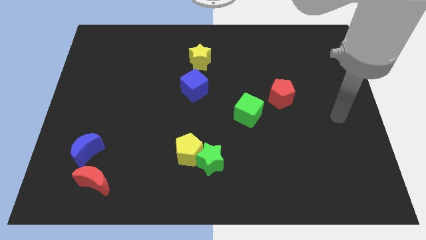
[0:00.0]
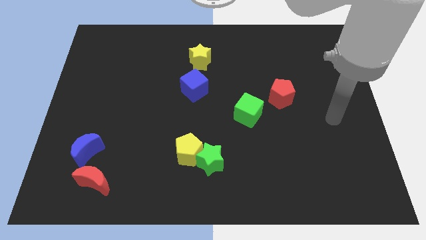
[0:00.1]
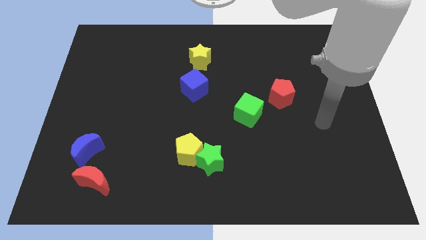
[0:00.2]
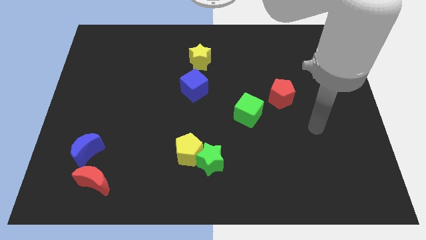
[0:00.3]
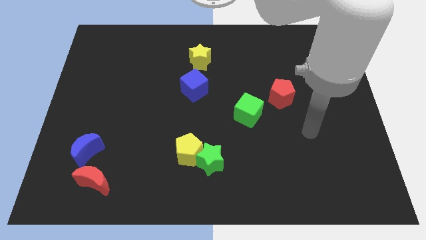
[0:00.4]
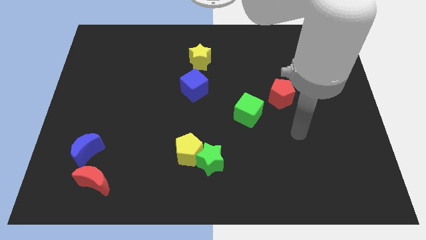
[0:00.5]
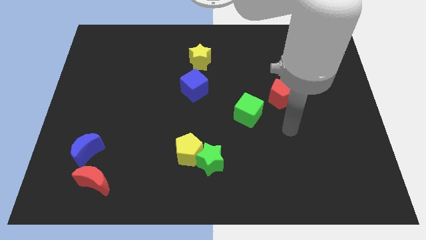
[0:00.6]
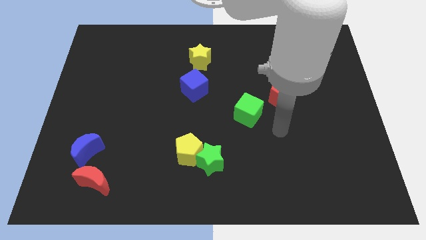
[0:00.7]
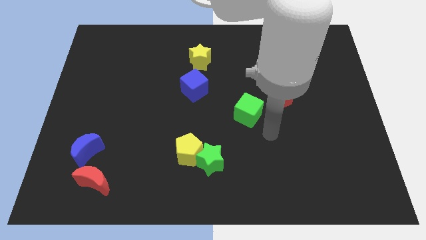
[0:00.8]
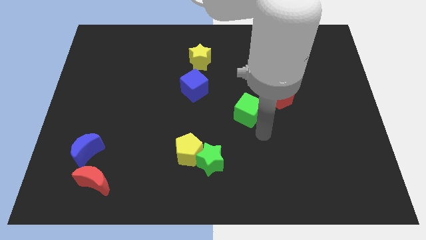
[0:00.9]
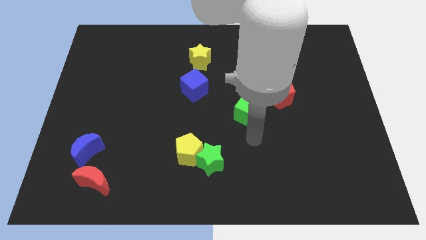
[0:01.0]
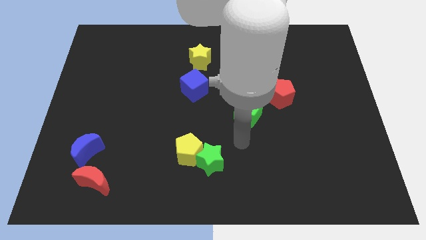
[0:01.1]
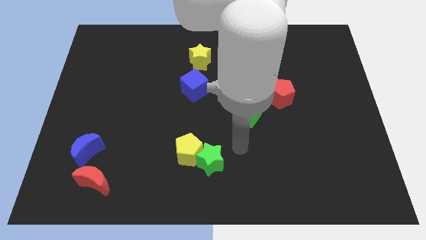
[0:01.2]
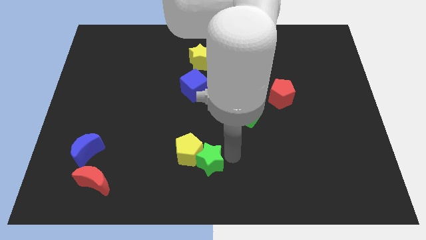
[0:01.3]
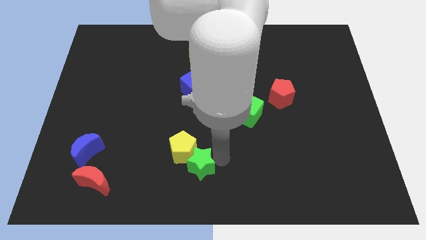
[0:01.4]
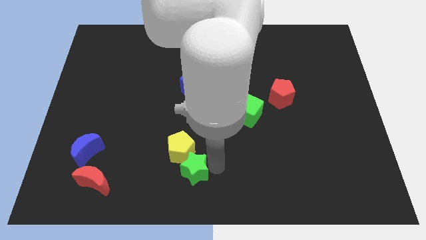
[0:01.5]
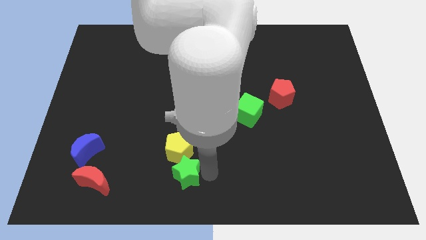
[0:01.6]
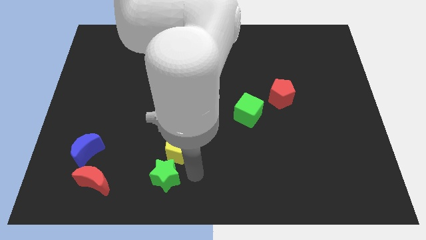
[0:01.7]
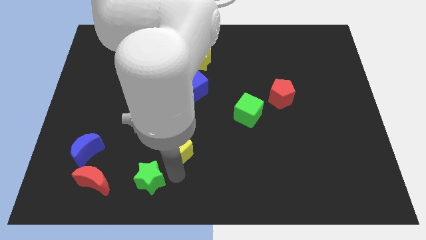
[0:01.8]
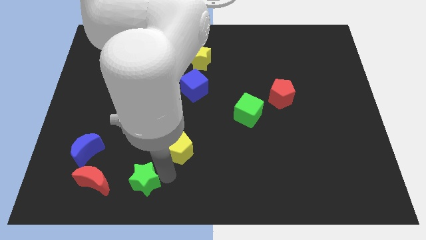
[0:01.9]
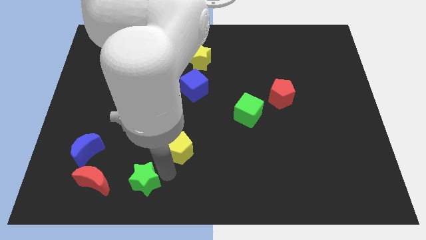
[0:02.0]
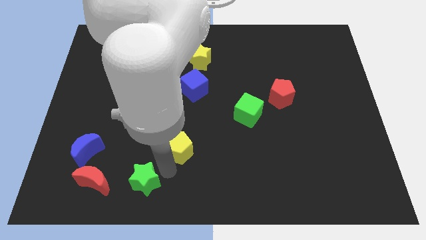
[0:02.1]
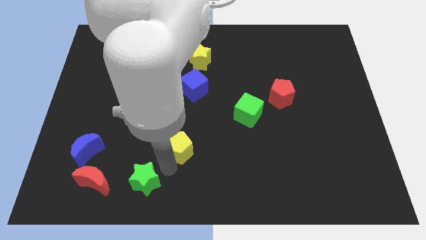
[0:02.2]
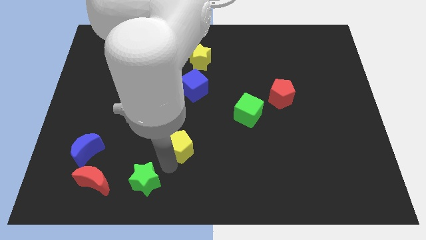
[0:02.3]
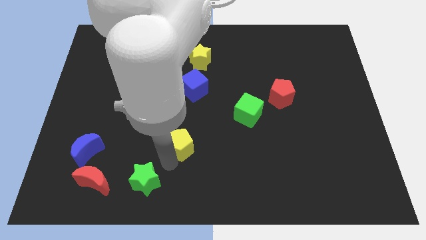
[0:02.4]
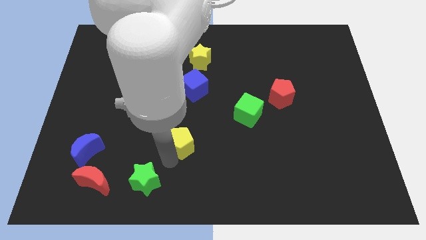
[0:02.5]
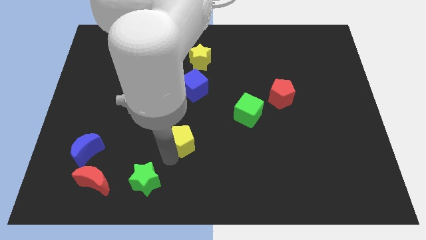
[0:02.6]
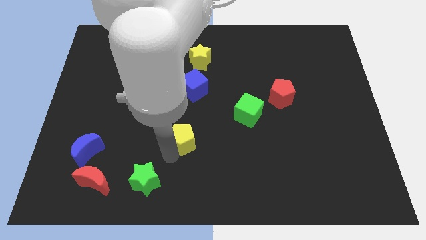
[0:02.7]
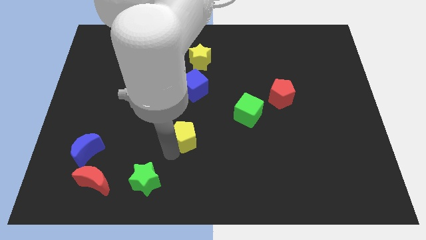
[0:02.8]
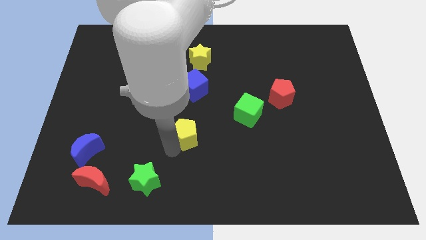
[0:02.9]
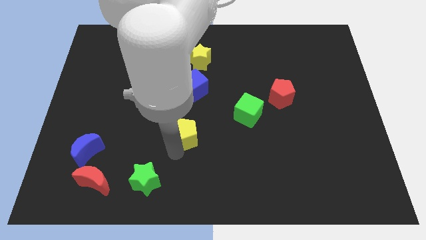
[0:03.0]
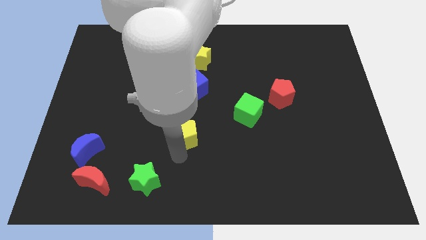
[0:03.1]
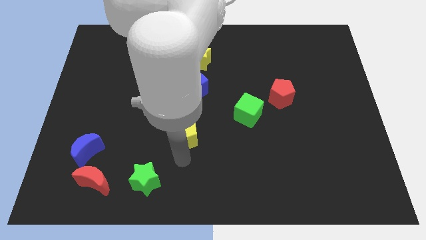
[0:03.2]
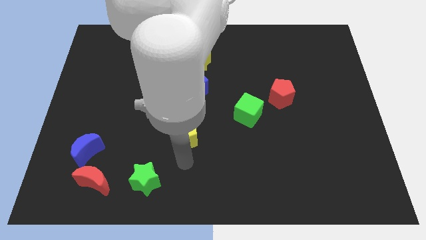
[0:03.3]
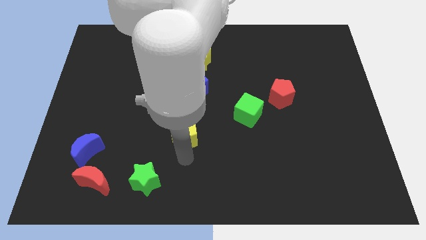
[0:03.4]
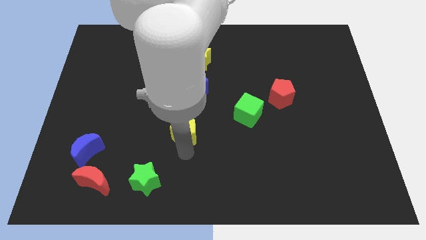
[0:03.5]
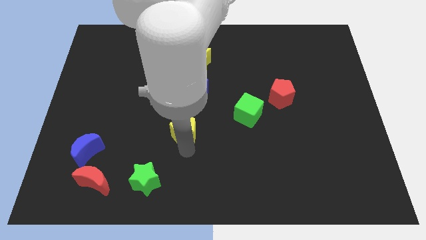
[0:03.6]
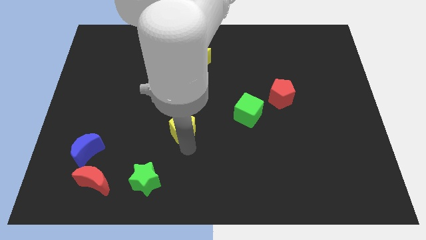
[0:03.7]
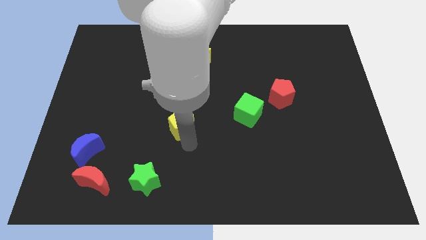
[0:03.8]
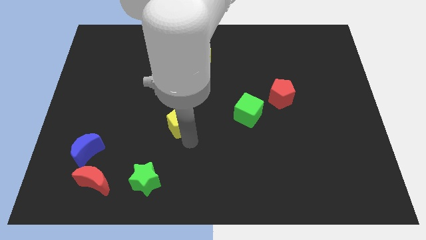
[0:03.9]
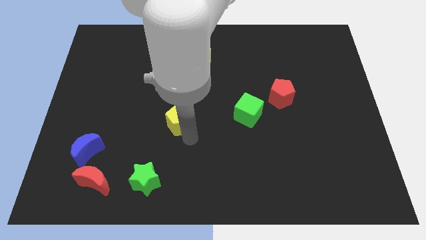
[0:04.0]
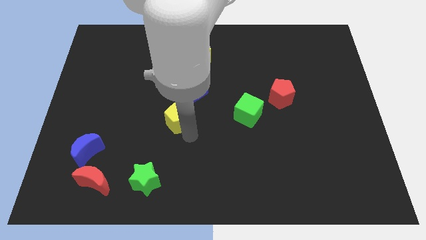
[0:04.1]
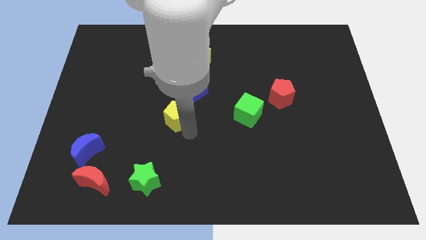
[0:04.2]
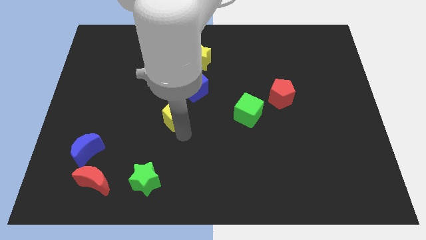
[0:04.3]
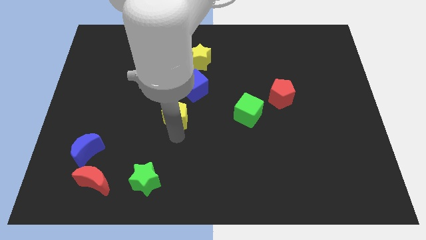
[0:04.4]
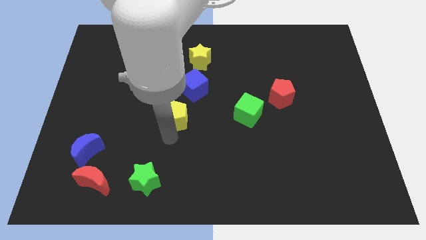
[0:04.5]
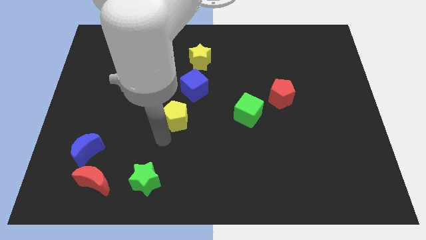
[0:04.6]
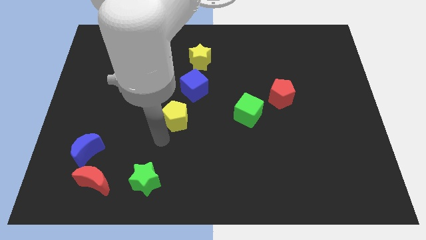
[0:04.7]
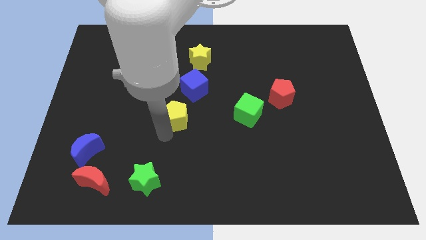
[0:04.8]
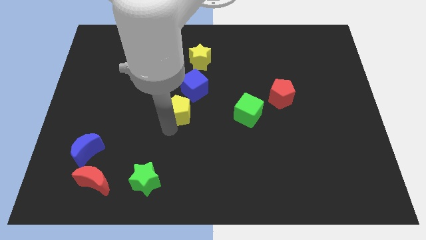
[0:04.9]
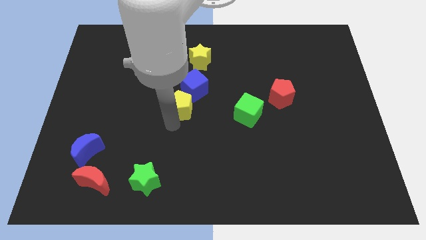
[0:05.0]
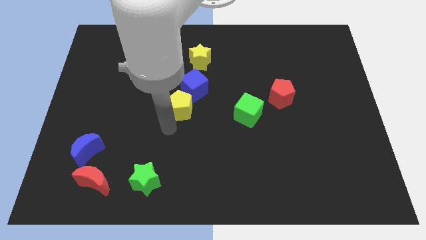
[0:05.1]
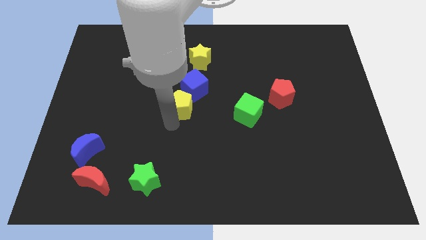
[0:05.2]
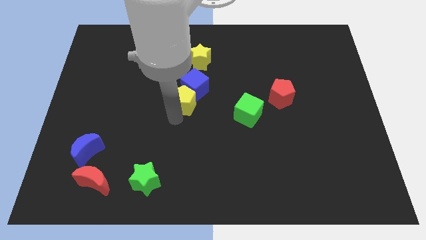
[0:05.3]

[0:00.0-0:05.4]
move the yellow pentagon close to the blue cube

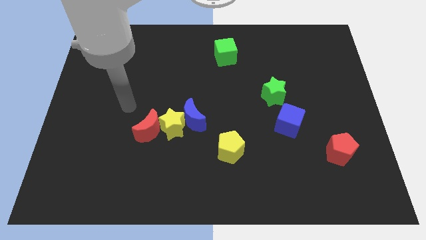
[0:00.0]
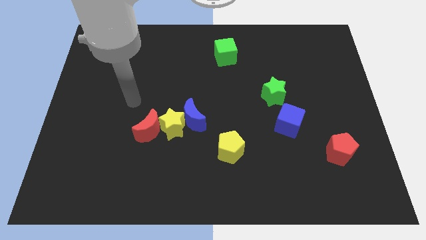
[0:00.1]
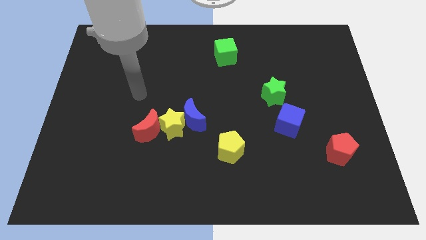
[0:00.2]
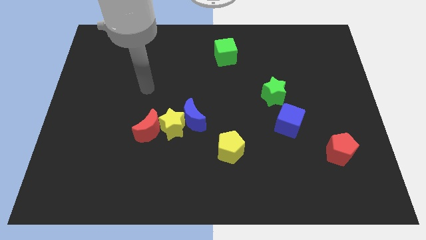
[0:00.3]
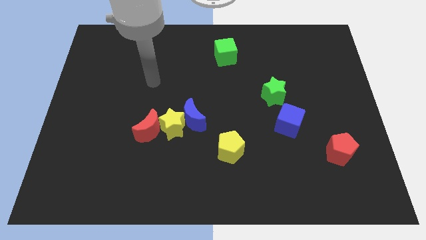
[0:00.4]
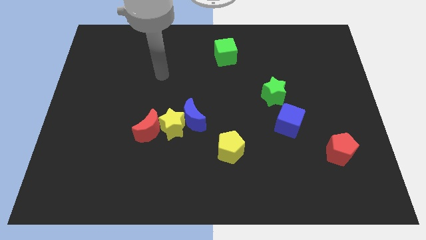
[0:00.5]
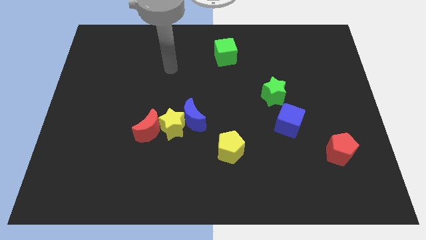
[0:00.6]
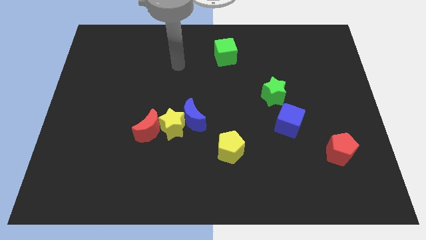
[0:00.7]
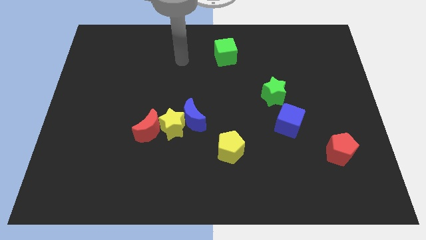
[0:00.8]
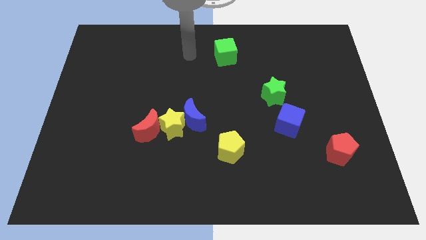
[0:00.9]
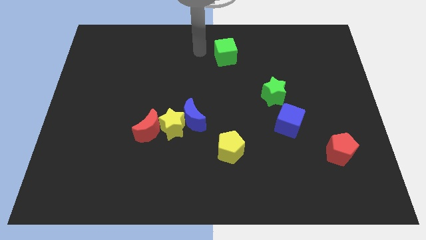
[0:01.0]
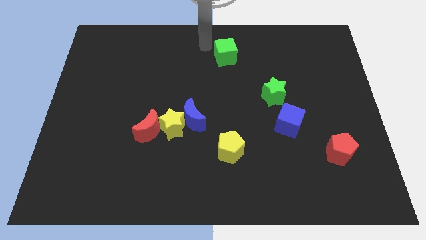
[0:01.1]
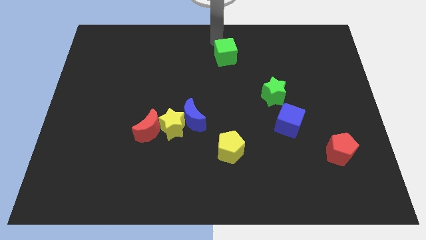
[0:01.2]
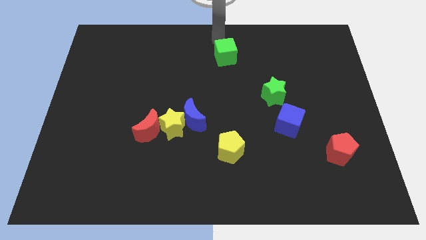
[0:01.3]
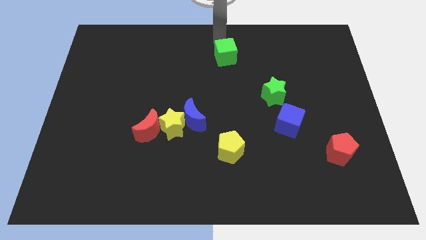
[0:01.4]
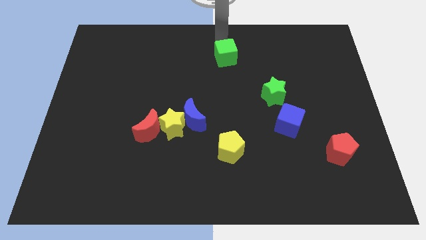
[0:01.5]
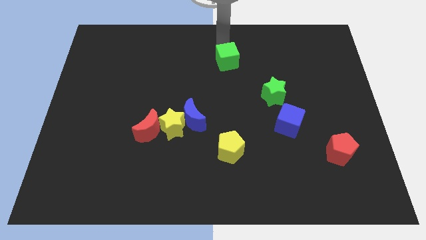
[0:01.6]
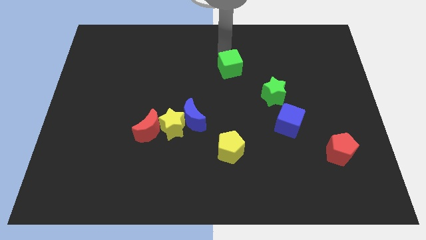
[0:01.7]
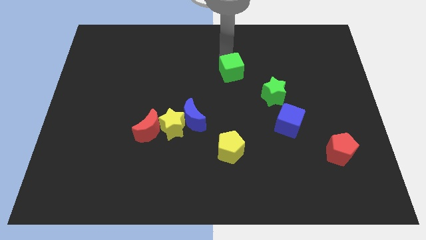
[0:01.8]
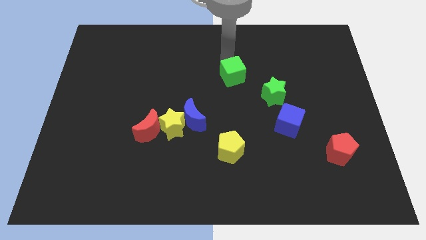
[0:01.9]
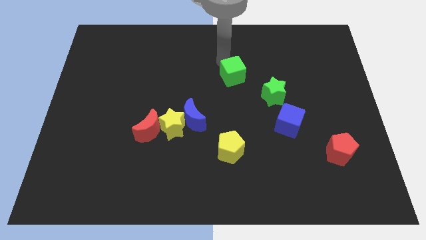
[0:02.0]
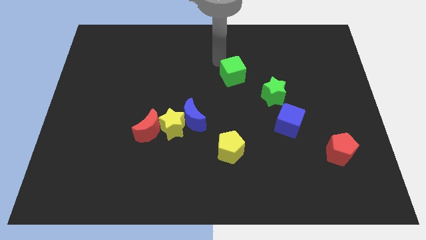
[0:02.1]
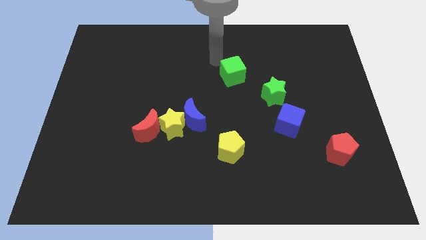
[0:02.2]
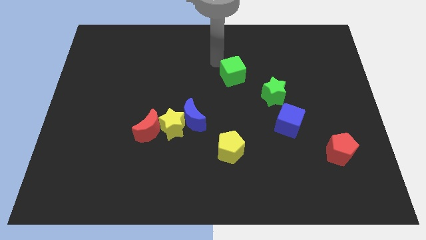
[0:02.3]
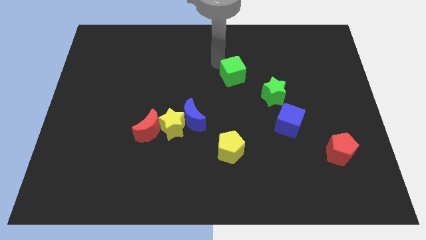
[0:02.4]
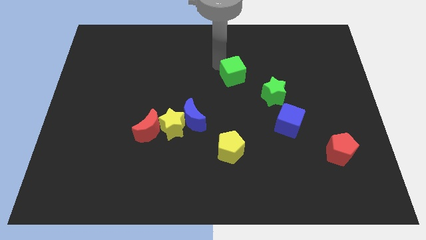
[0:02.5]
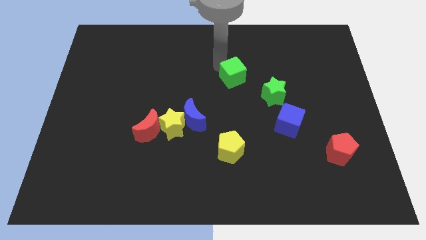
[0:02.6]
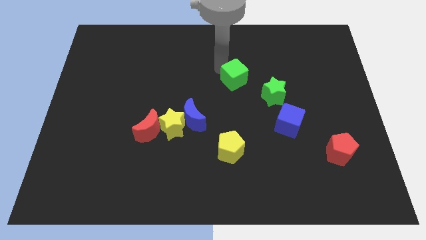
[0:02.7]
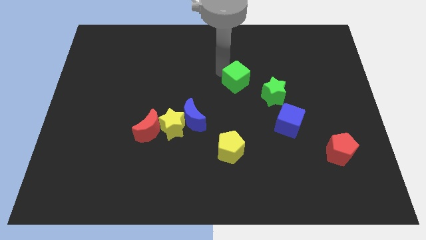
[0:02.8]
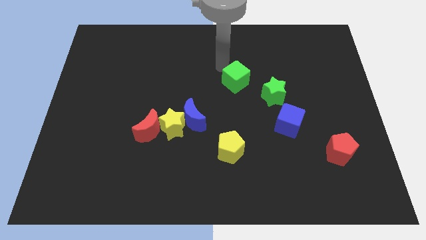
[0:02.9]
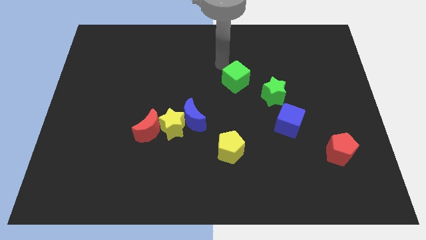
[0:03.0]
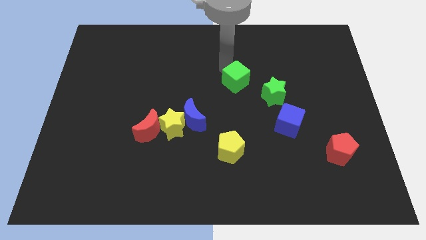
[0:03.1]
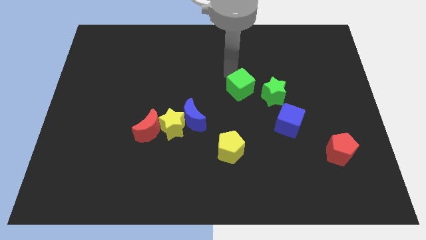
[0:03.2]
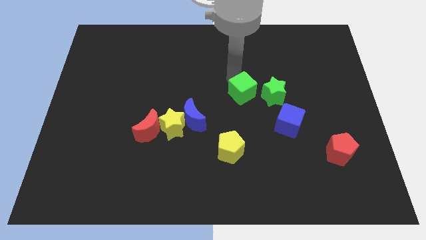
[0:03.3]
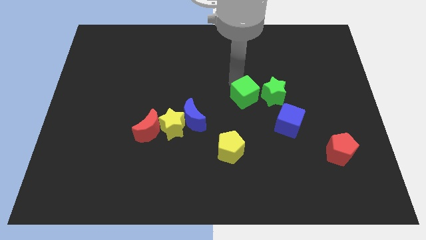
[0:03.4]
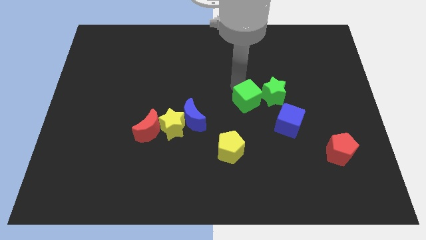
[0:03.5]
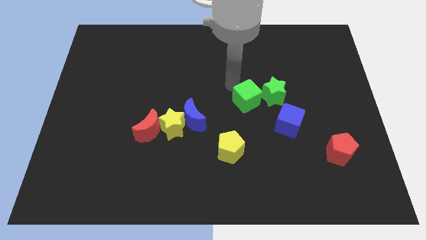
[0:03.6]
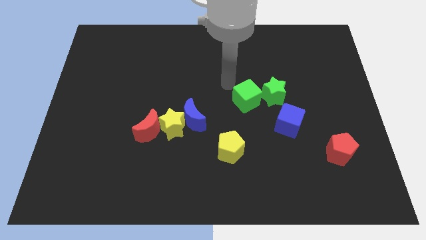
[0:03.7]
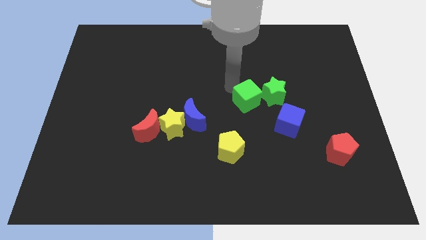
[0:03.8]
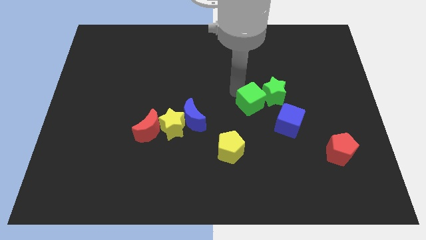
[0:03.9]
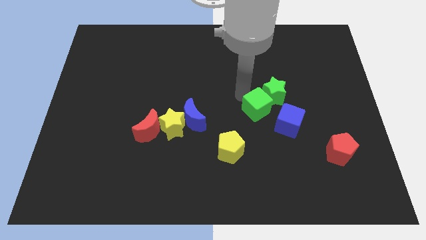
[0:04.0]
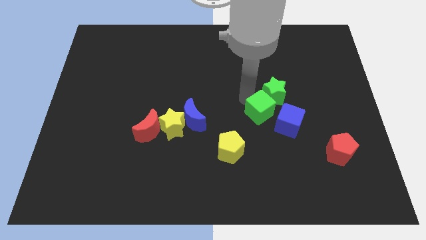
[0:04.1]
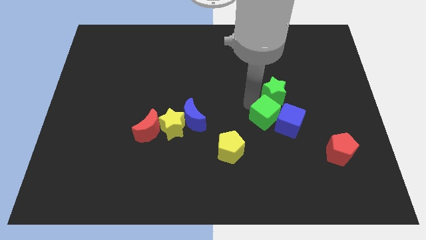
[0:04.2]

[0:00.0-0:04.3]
put the green cube towards the blue cube
